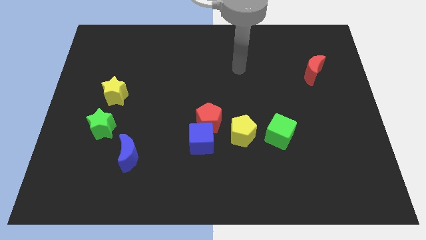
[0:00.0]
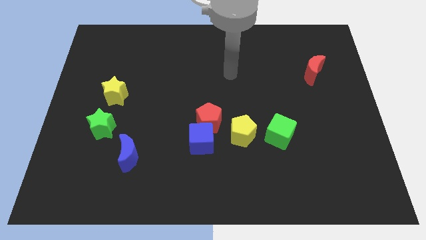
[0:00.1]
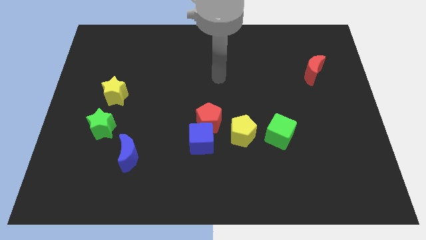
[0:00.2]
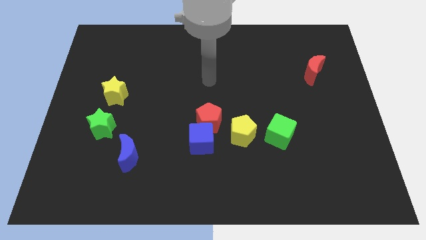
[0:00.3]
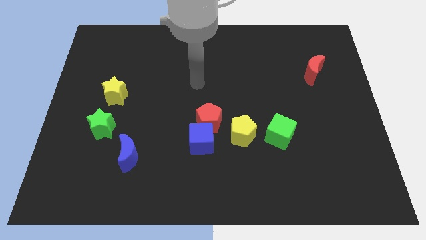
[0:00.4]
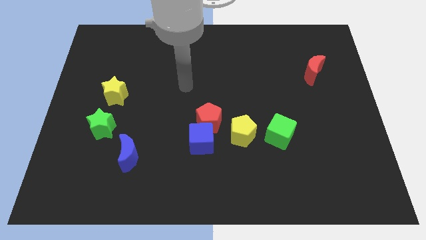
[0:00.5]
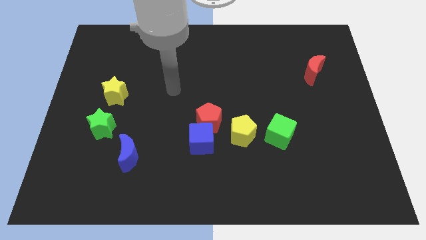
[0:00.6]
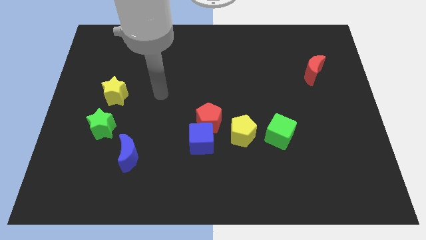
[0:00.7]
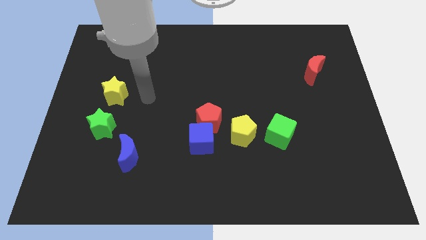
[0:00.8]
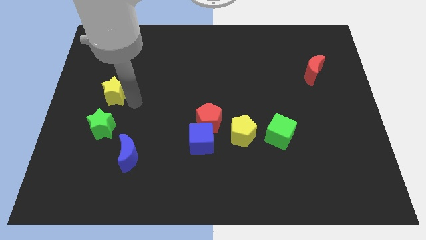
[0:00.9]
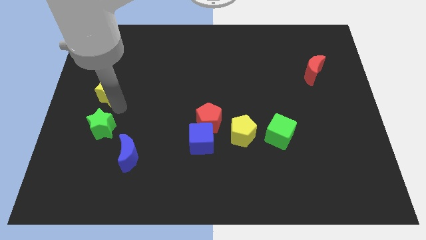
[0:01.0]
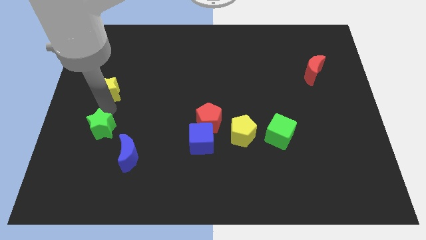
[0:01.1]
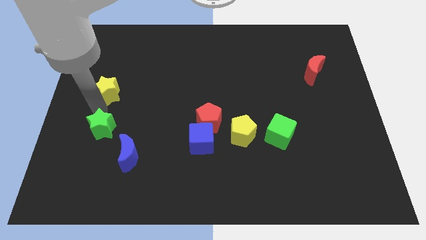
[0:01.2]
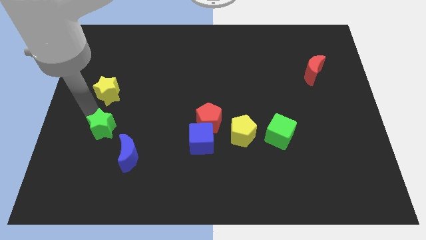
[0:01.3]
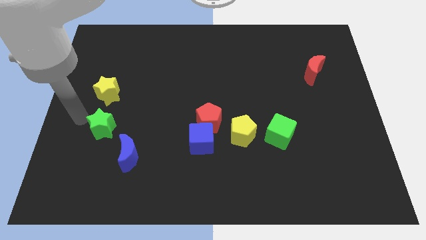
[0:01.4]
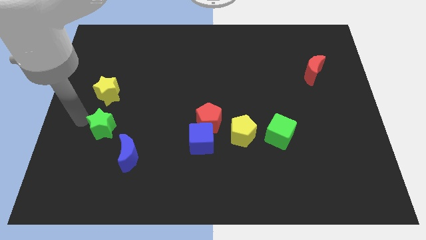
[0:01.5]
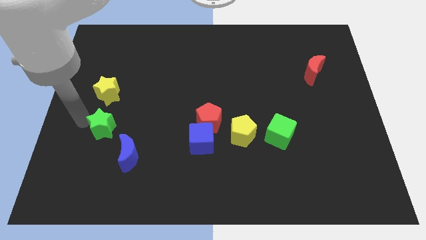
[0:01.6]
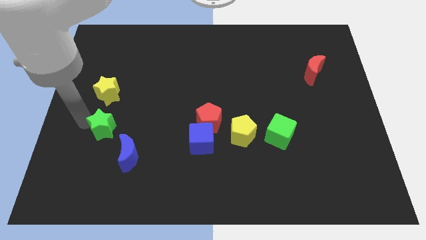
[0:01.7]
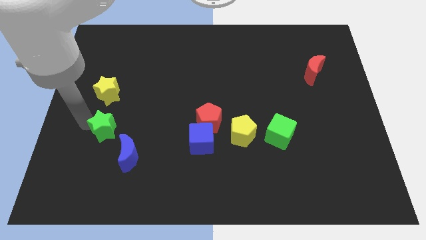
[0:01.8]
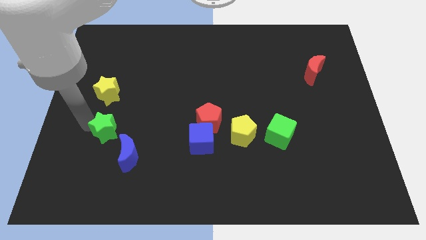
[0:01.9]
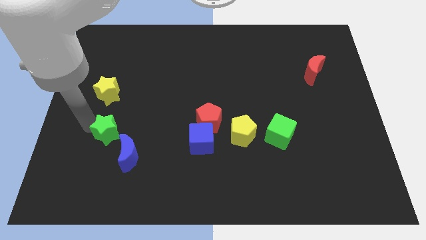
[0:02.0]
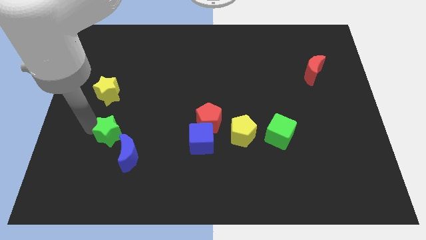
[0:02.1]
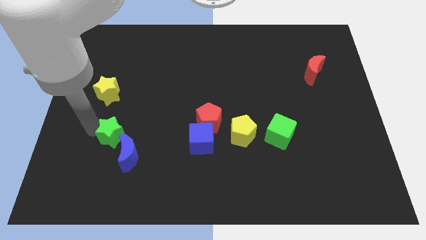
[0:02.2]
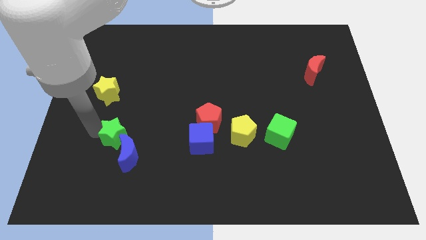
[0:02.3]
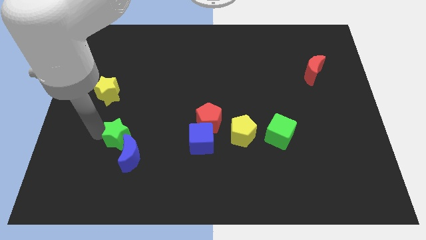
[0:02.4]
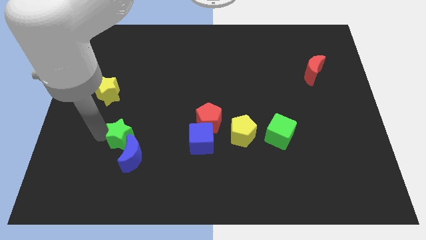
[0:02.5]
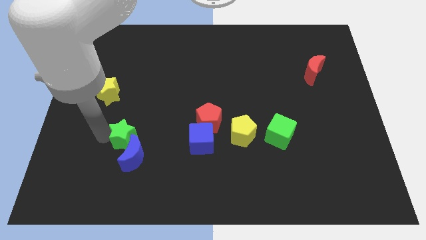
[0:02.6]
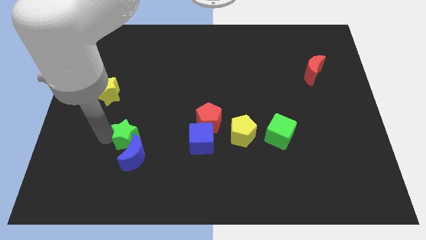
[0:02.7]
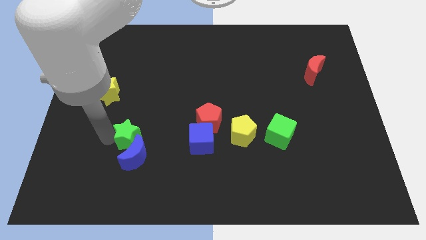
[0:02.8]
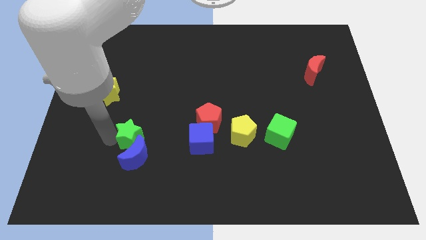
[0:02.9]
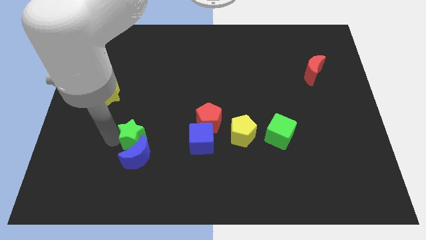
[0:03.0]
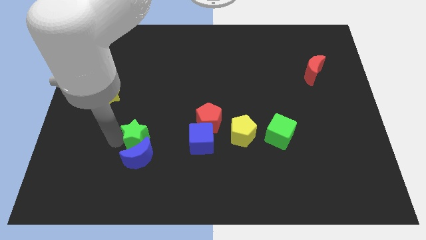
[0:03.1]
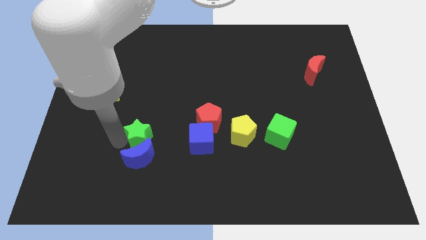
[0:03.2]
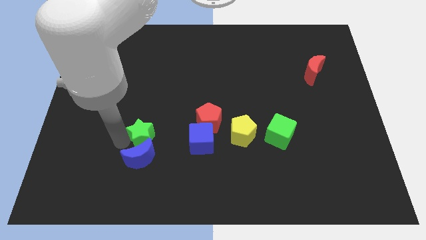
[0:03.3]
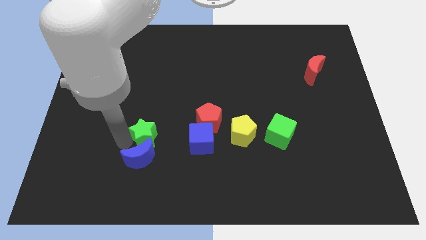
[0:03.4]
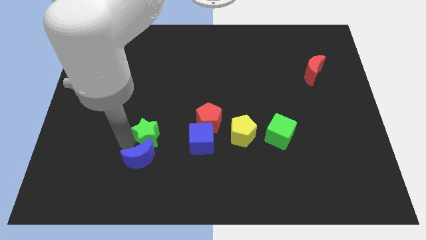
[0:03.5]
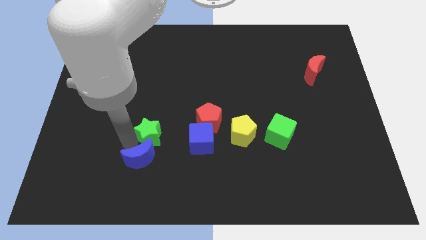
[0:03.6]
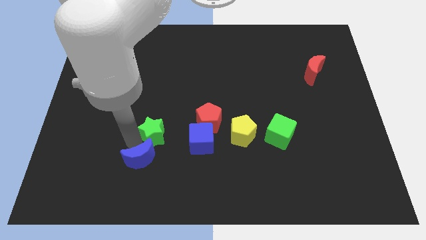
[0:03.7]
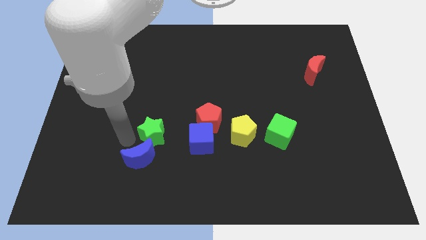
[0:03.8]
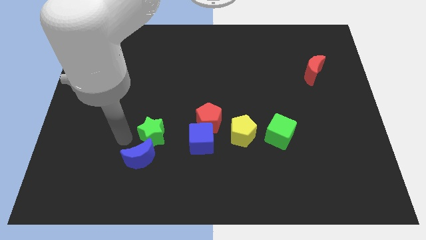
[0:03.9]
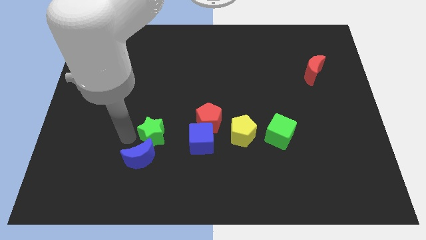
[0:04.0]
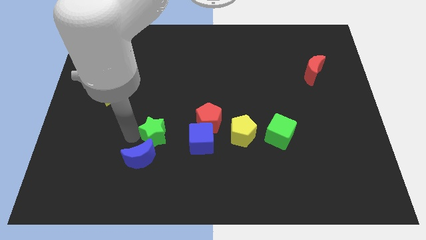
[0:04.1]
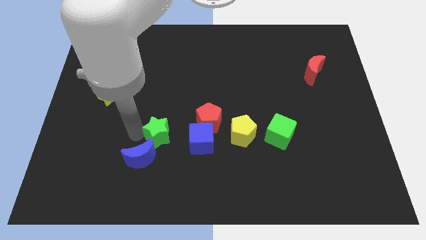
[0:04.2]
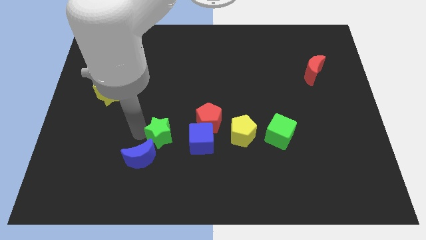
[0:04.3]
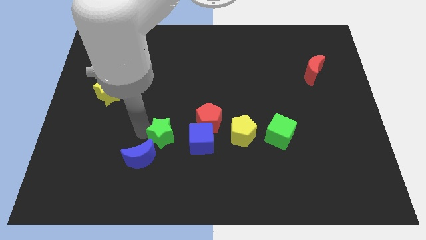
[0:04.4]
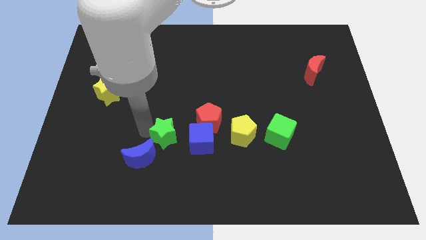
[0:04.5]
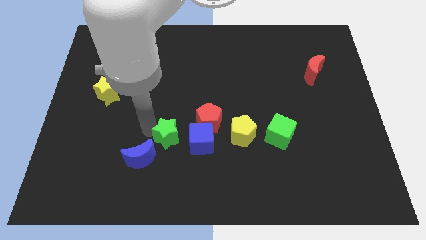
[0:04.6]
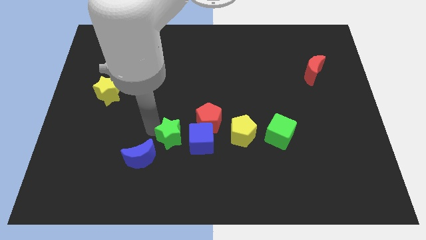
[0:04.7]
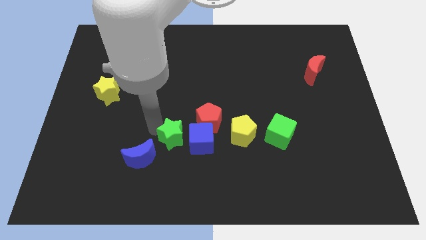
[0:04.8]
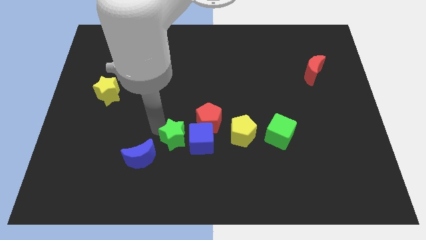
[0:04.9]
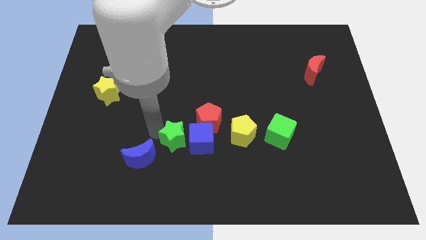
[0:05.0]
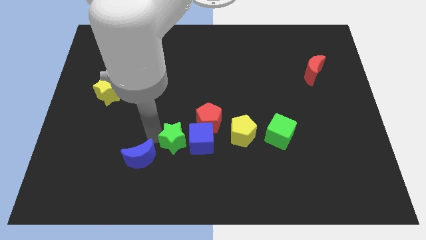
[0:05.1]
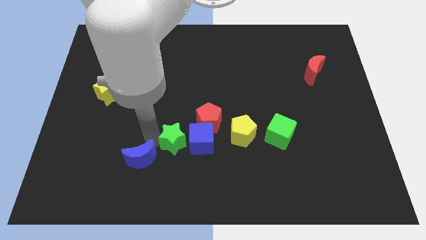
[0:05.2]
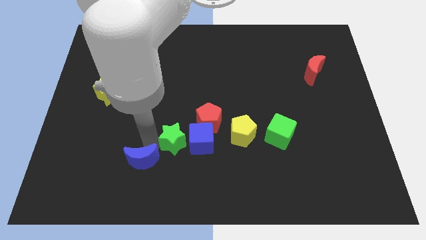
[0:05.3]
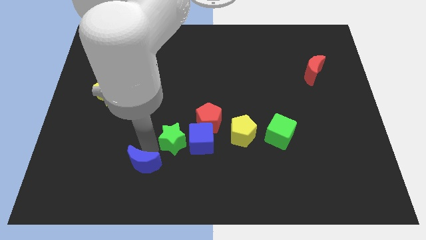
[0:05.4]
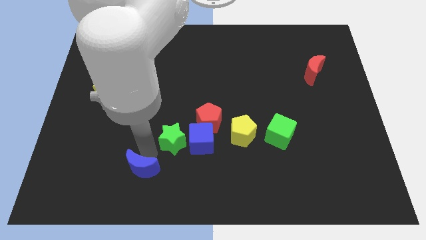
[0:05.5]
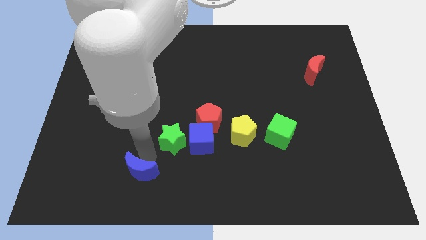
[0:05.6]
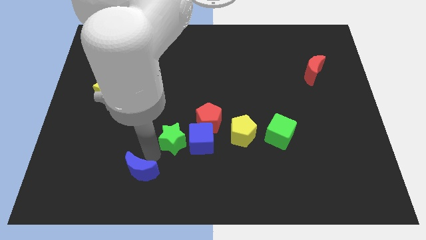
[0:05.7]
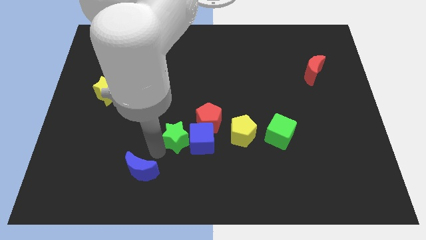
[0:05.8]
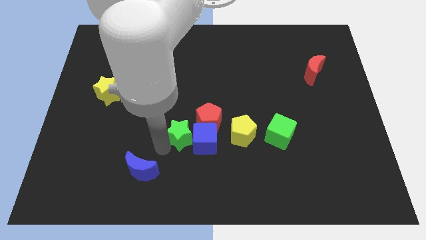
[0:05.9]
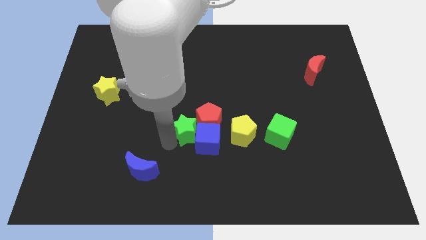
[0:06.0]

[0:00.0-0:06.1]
push the green star close to the red pentagon
